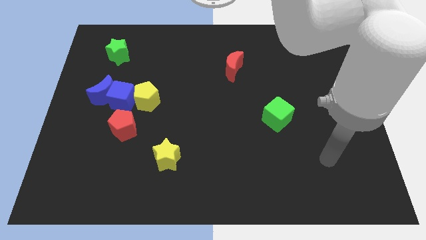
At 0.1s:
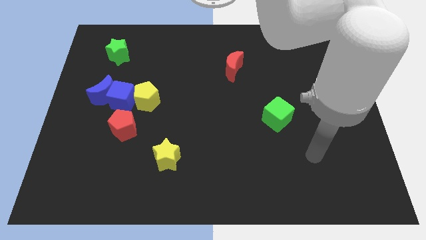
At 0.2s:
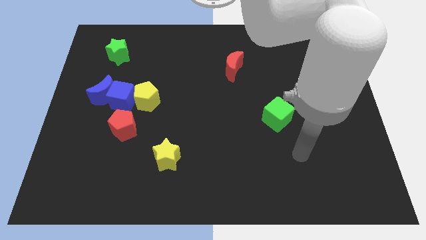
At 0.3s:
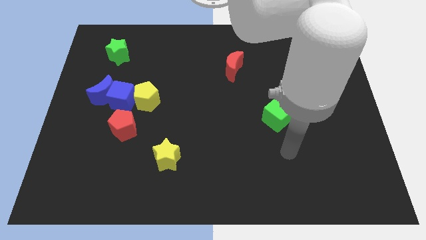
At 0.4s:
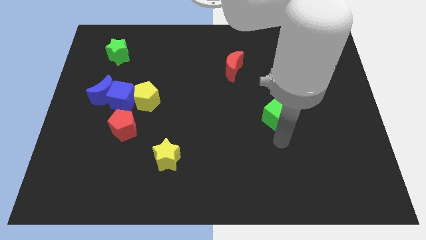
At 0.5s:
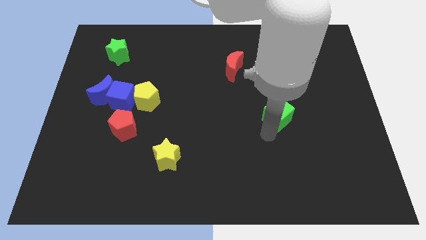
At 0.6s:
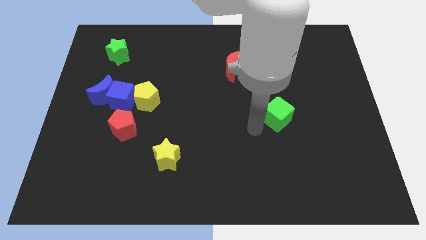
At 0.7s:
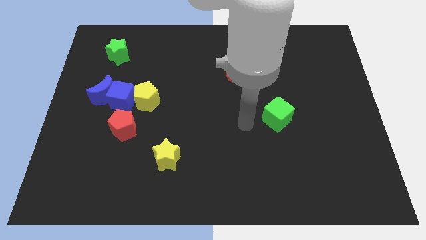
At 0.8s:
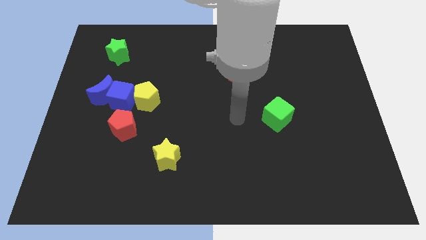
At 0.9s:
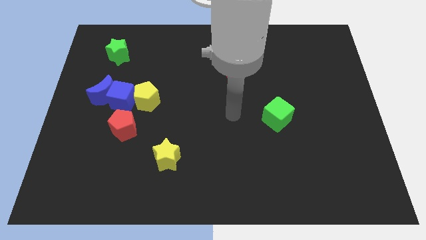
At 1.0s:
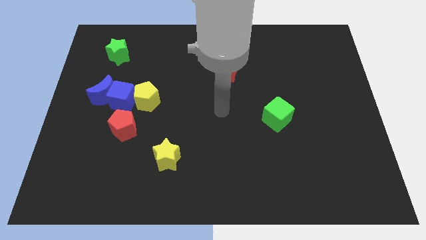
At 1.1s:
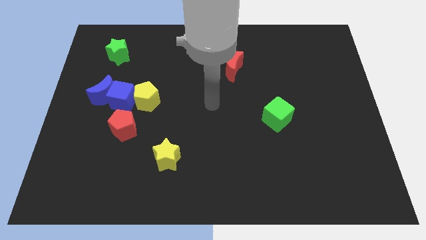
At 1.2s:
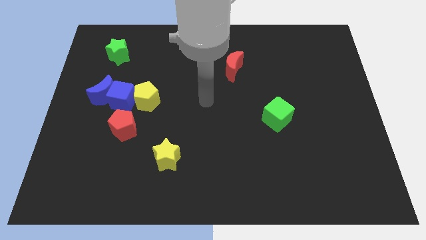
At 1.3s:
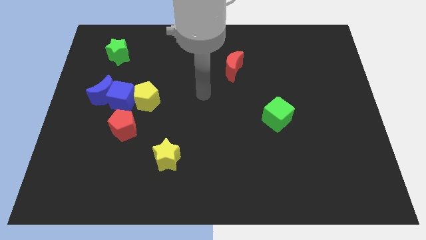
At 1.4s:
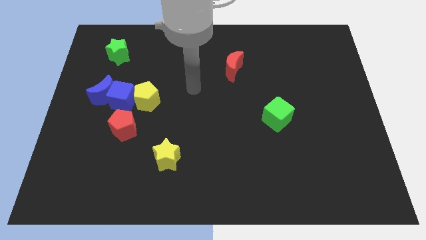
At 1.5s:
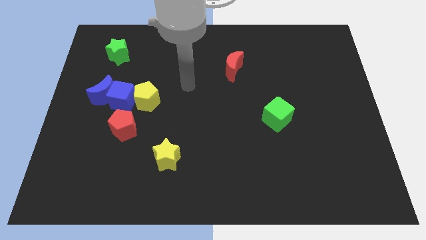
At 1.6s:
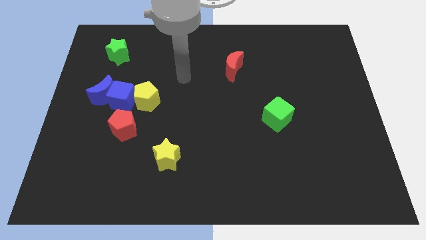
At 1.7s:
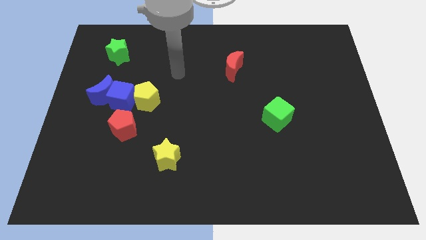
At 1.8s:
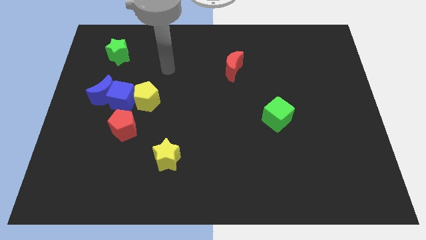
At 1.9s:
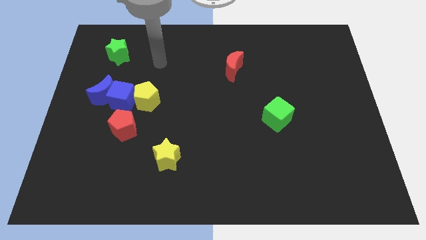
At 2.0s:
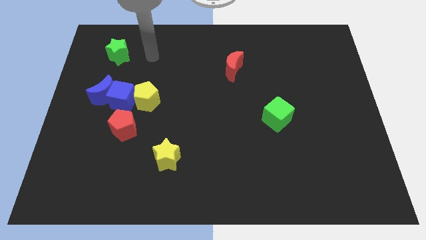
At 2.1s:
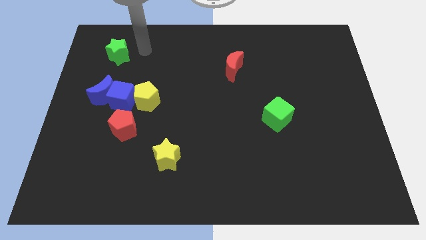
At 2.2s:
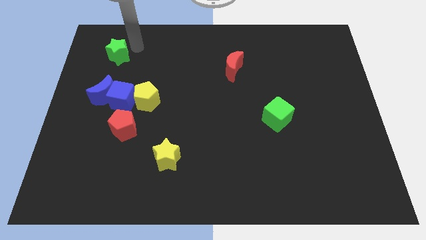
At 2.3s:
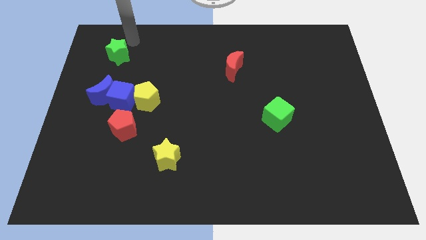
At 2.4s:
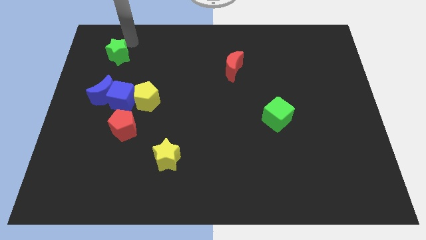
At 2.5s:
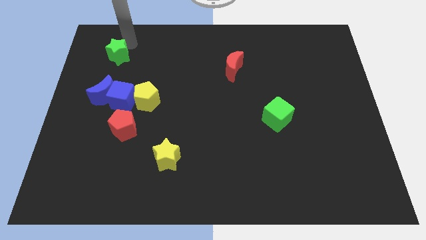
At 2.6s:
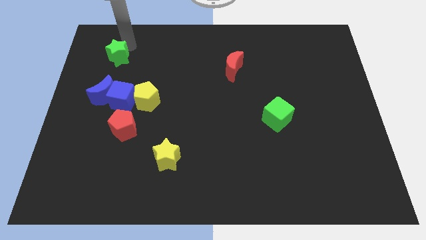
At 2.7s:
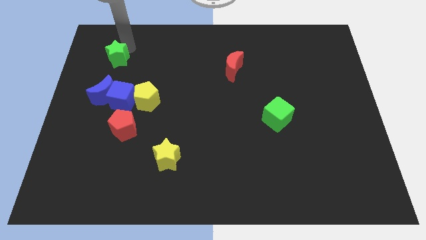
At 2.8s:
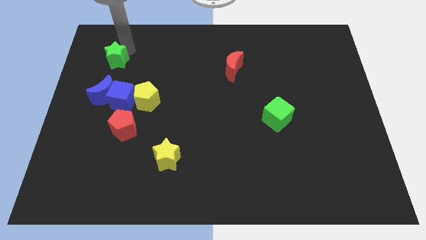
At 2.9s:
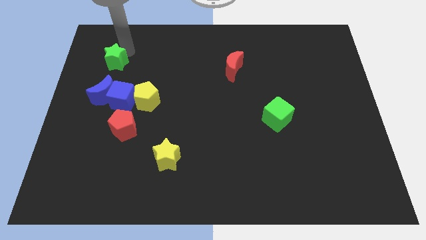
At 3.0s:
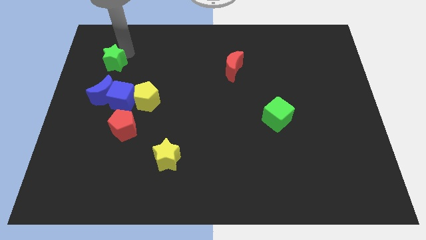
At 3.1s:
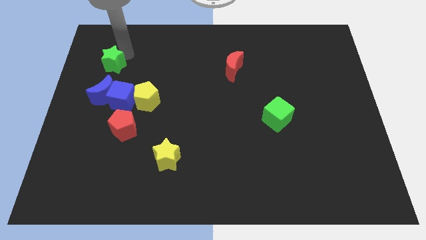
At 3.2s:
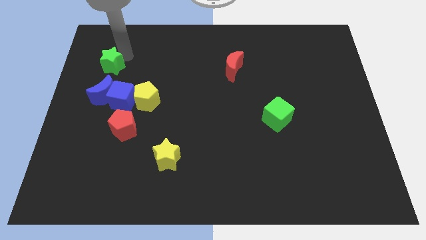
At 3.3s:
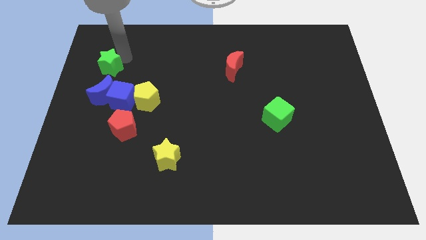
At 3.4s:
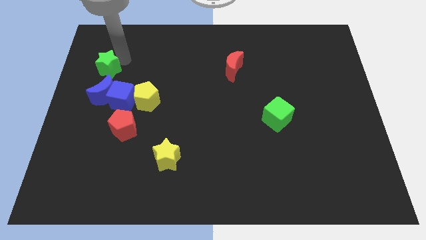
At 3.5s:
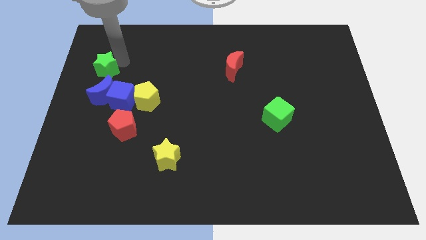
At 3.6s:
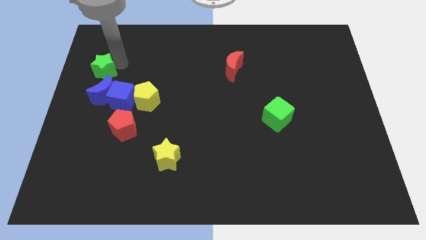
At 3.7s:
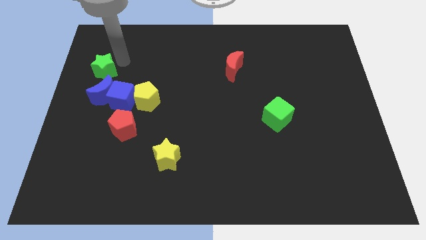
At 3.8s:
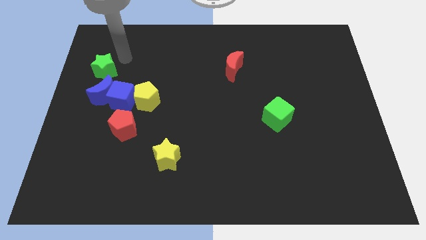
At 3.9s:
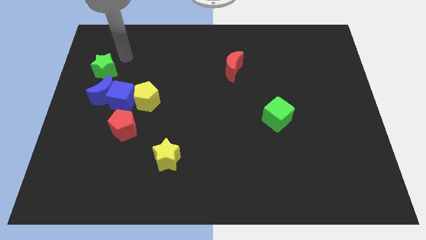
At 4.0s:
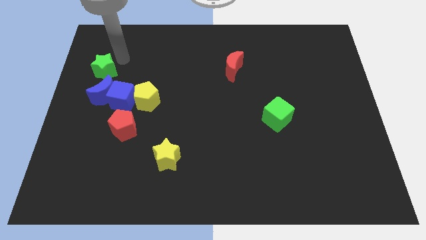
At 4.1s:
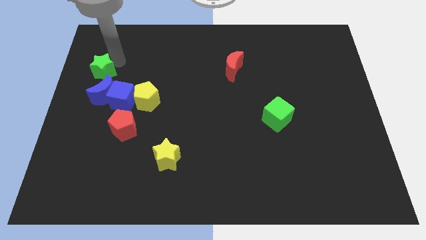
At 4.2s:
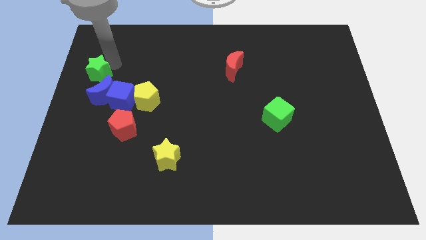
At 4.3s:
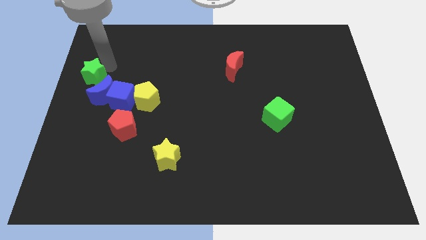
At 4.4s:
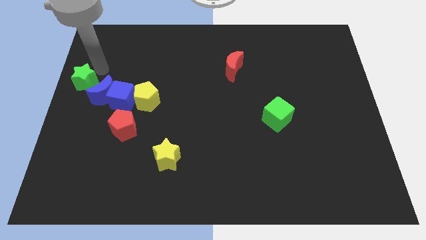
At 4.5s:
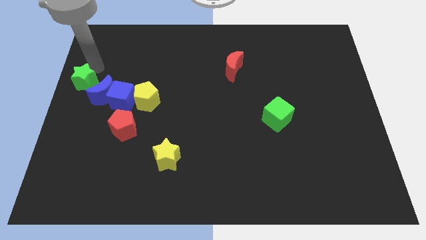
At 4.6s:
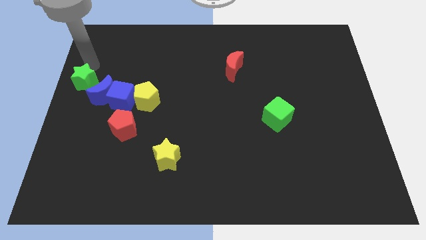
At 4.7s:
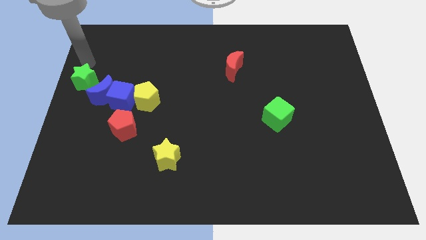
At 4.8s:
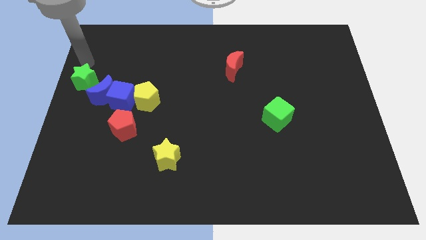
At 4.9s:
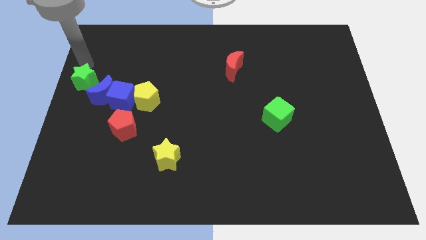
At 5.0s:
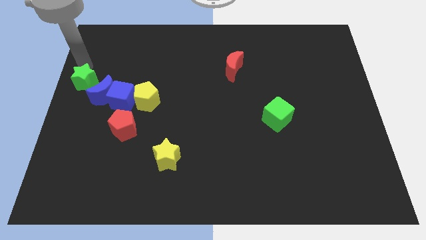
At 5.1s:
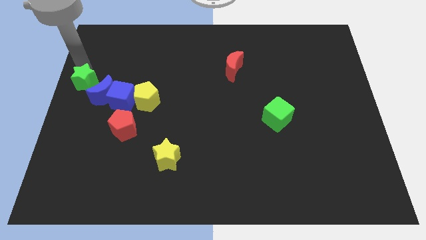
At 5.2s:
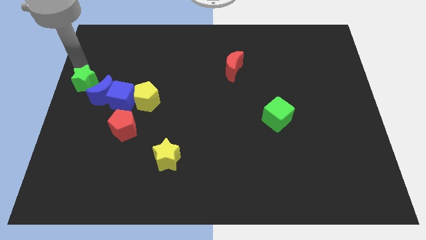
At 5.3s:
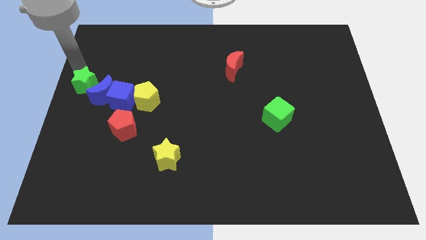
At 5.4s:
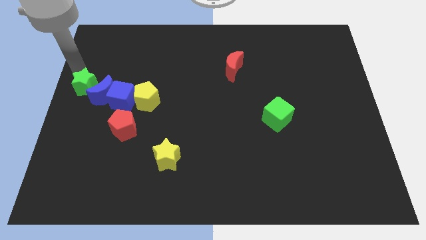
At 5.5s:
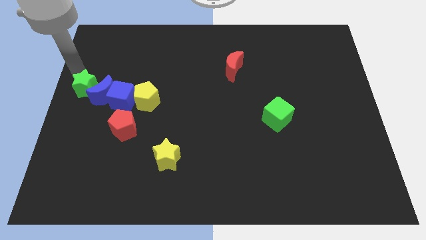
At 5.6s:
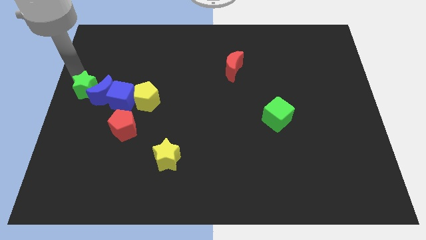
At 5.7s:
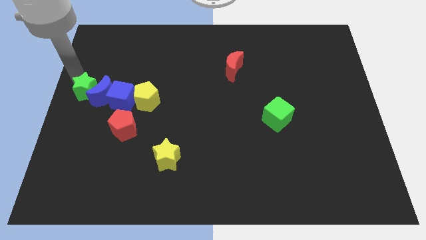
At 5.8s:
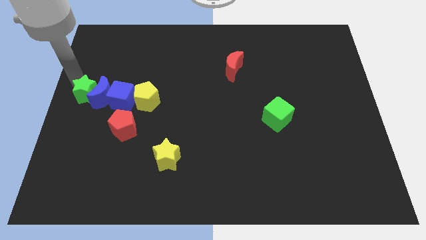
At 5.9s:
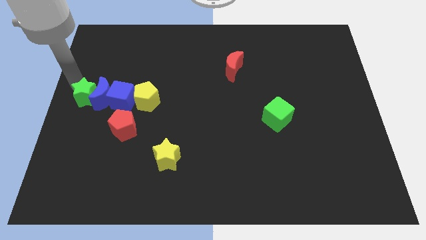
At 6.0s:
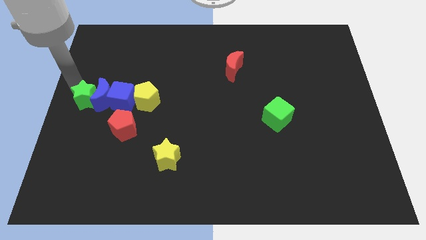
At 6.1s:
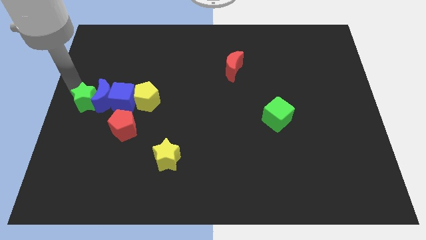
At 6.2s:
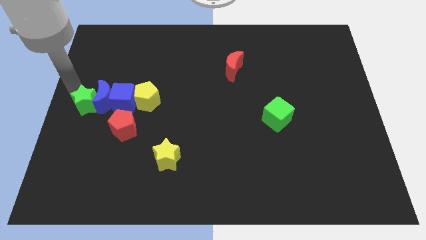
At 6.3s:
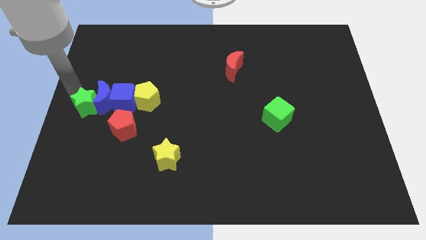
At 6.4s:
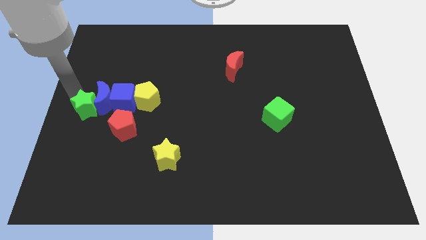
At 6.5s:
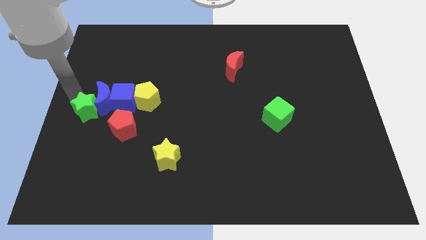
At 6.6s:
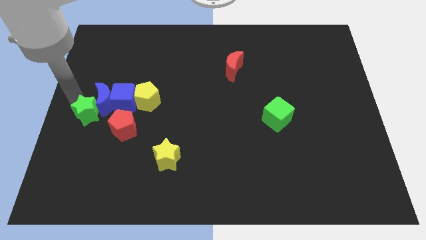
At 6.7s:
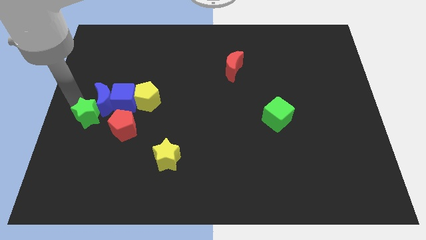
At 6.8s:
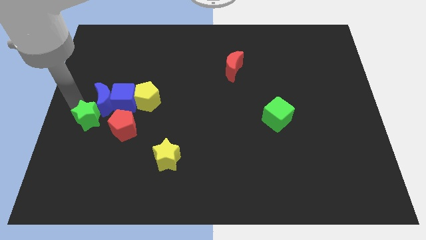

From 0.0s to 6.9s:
move the green star down

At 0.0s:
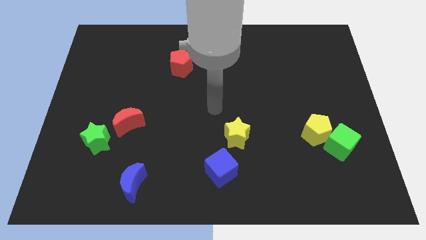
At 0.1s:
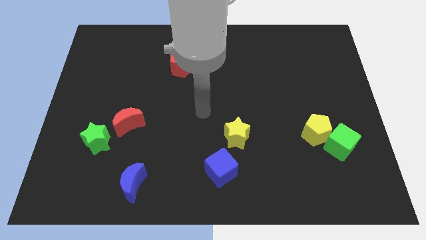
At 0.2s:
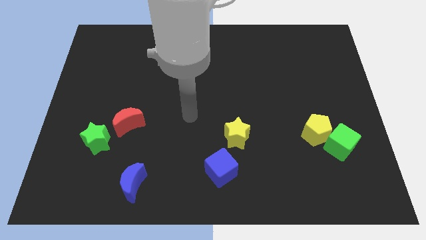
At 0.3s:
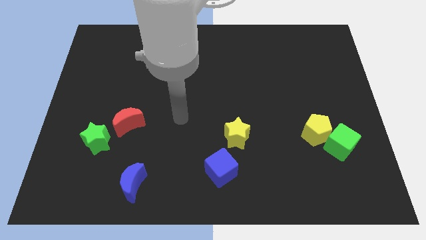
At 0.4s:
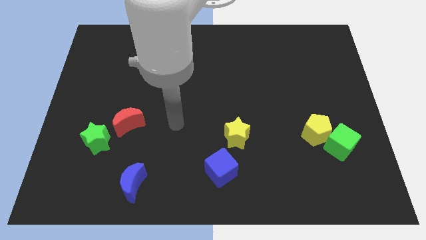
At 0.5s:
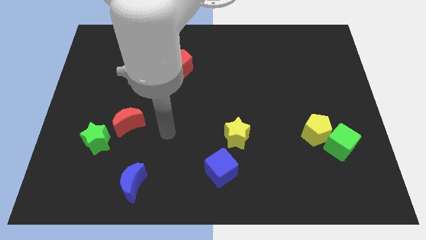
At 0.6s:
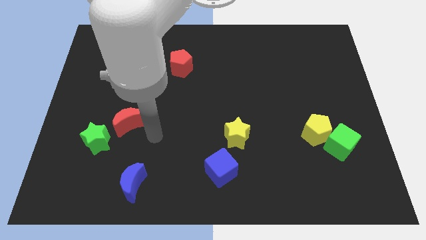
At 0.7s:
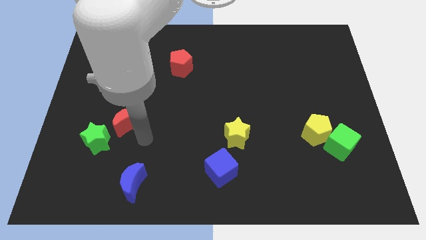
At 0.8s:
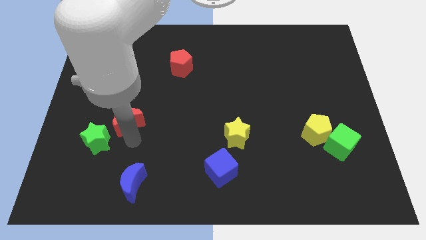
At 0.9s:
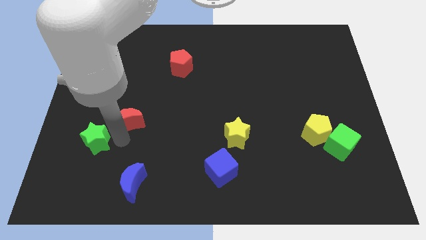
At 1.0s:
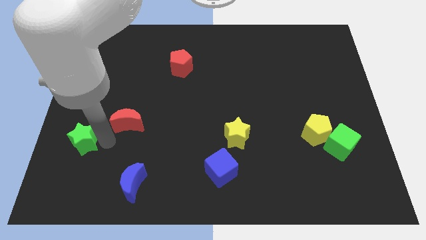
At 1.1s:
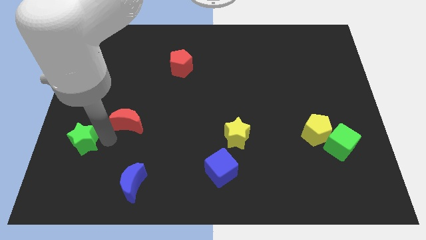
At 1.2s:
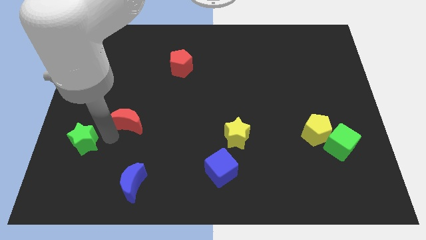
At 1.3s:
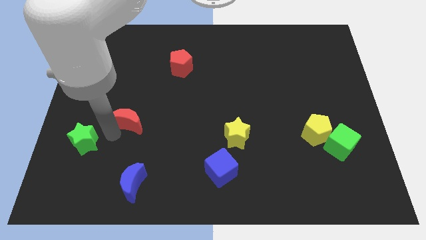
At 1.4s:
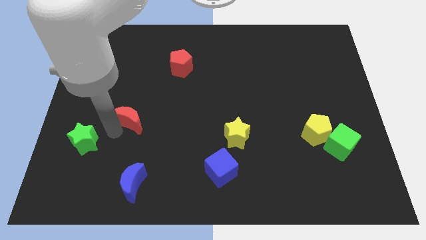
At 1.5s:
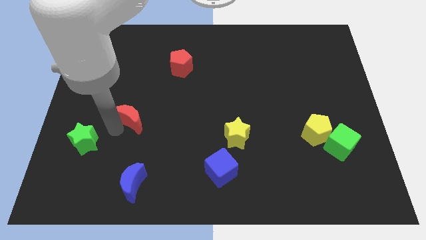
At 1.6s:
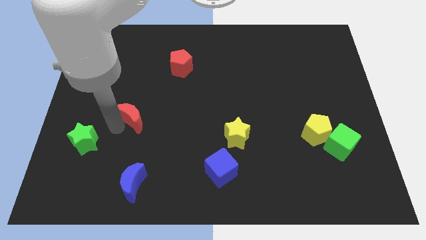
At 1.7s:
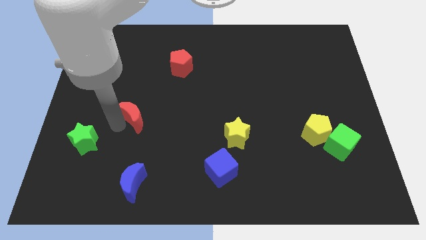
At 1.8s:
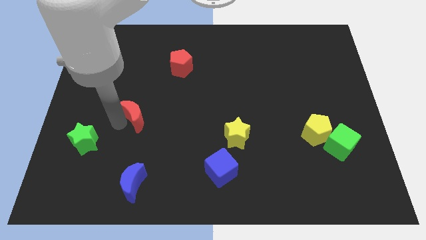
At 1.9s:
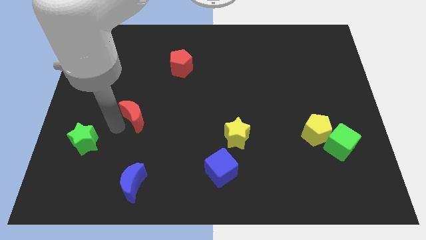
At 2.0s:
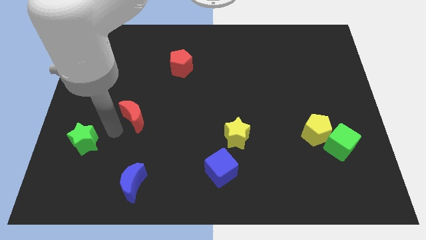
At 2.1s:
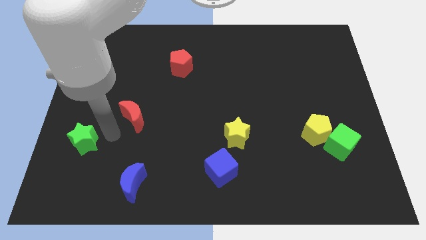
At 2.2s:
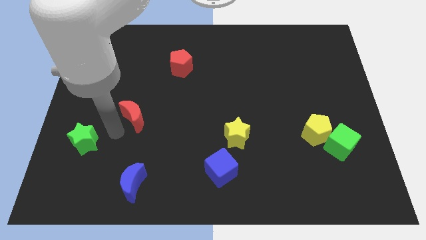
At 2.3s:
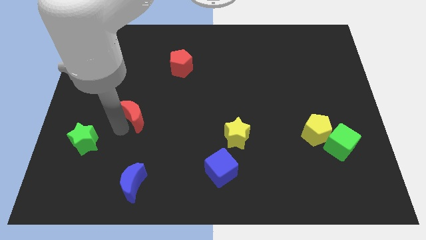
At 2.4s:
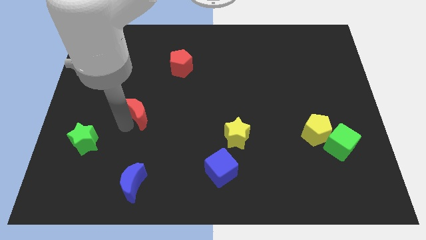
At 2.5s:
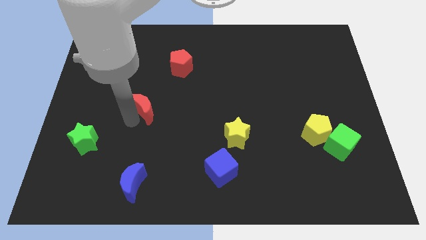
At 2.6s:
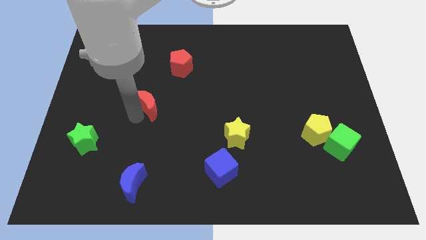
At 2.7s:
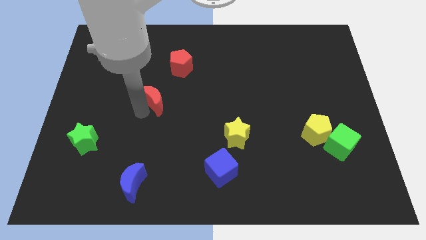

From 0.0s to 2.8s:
slide the red moon a little bit diagonally up and right
